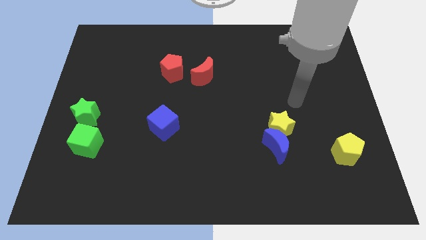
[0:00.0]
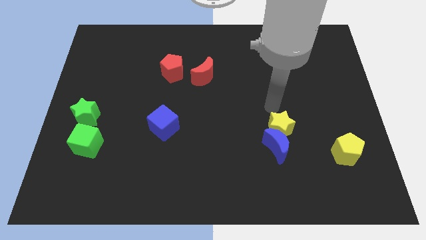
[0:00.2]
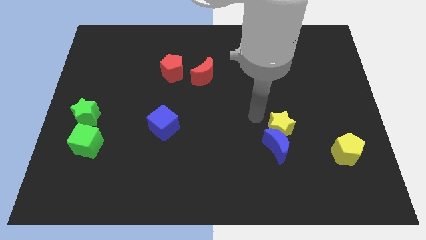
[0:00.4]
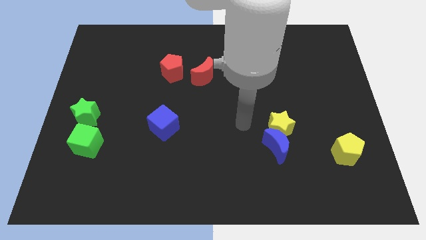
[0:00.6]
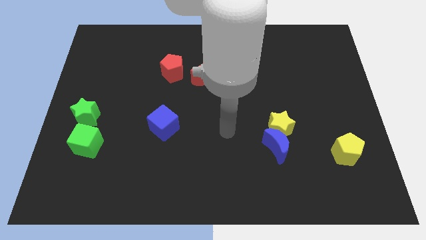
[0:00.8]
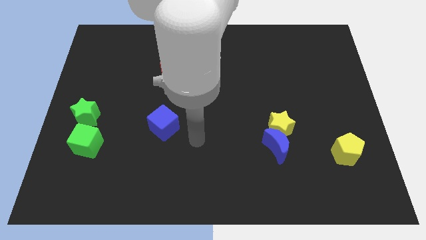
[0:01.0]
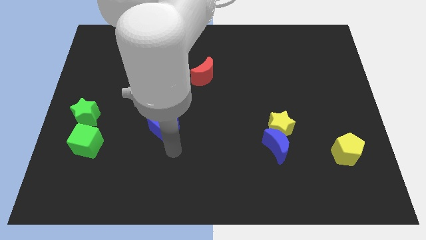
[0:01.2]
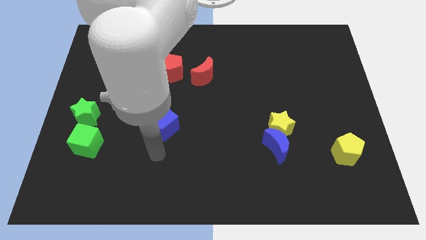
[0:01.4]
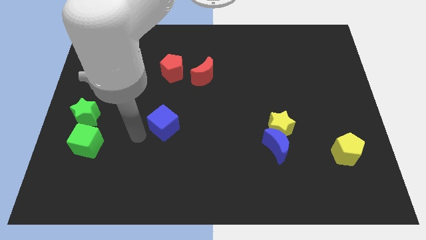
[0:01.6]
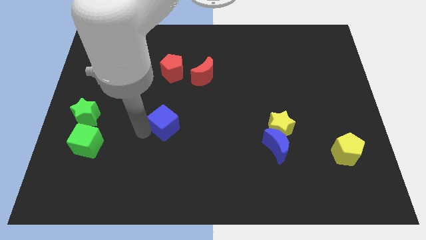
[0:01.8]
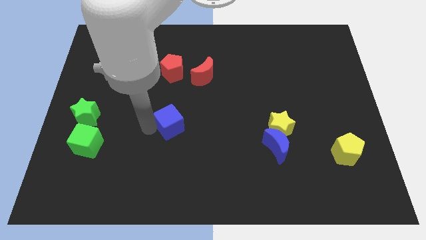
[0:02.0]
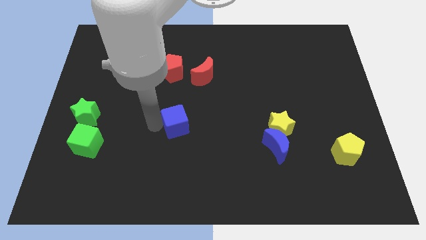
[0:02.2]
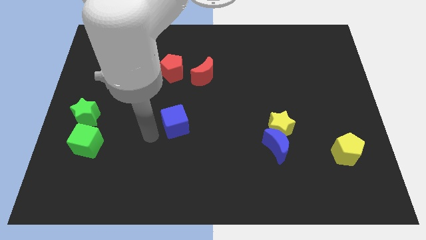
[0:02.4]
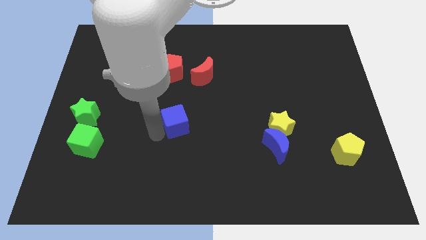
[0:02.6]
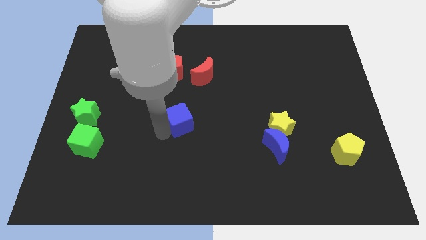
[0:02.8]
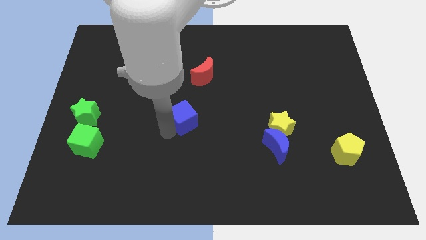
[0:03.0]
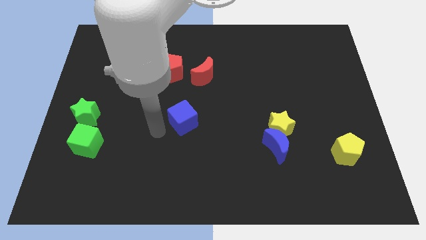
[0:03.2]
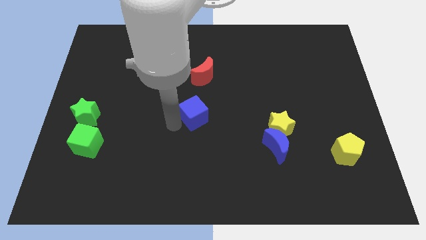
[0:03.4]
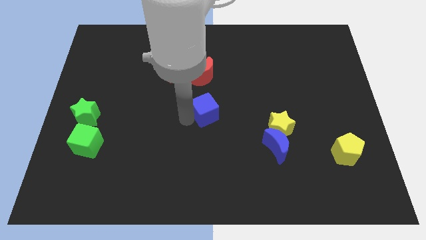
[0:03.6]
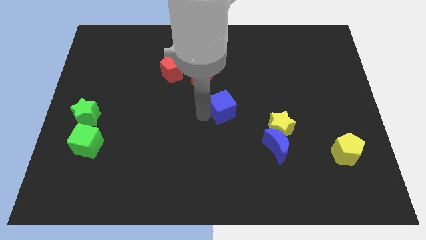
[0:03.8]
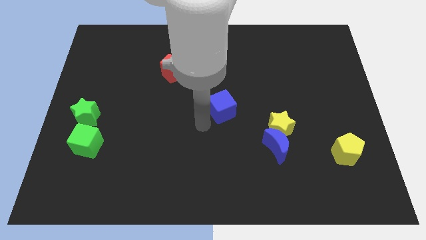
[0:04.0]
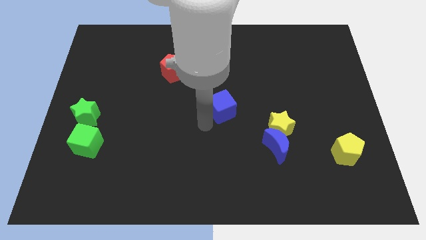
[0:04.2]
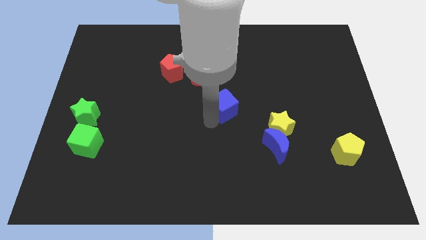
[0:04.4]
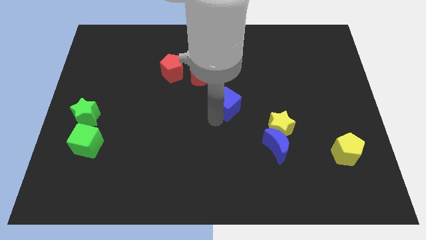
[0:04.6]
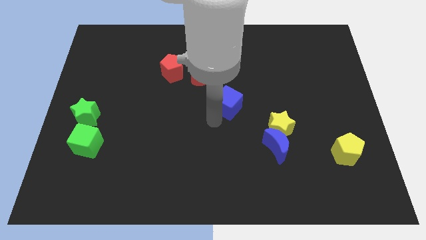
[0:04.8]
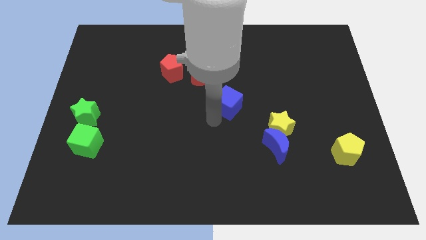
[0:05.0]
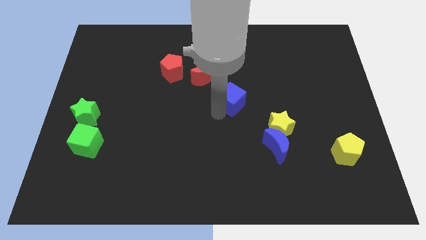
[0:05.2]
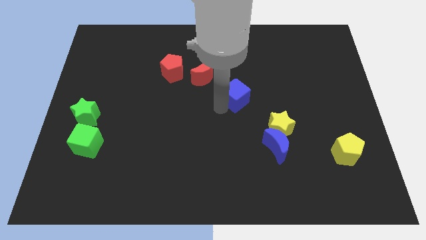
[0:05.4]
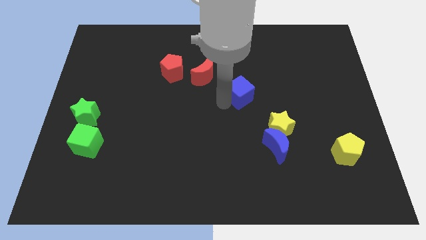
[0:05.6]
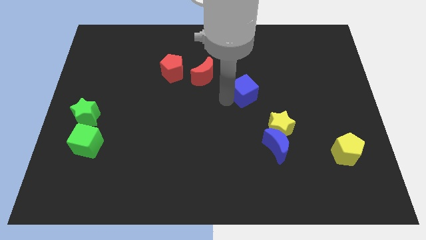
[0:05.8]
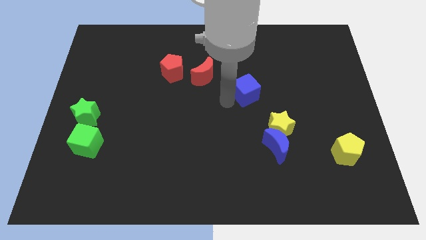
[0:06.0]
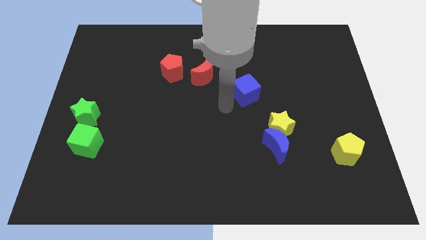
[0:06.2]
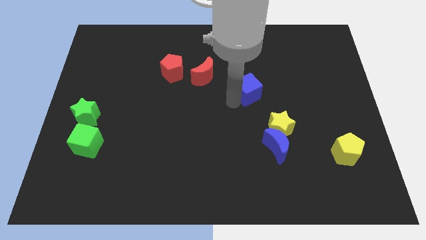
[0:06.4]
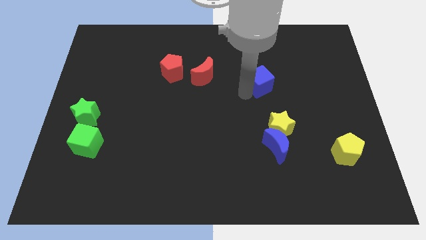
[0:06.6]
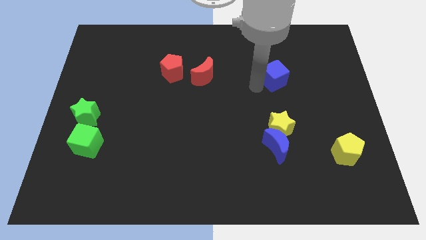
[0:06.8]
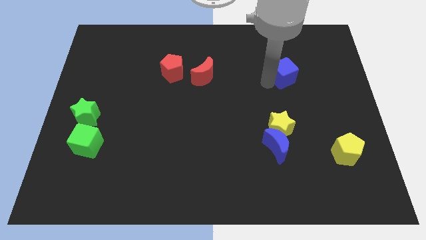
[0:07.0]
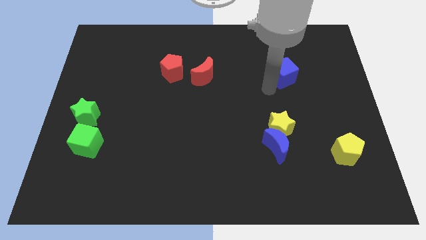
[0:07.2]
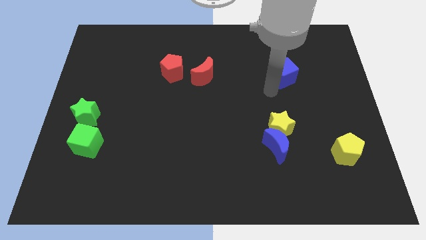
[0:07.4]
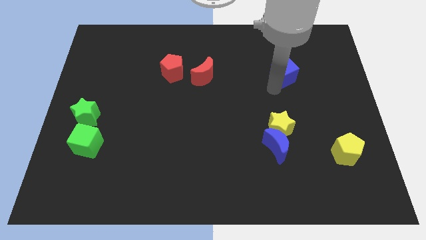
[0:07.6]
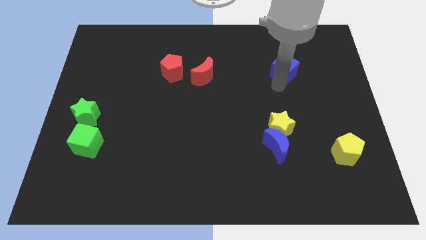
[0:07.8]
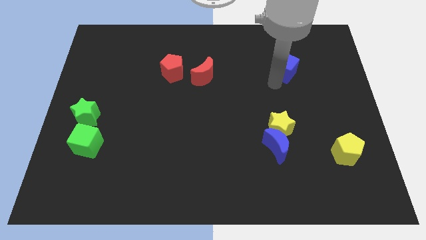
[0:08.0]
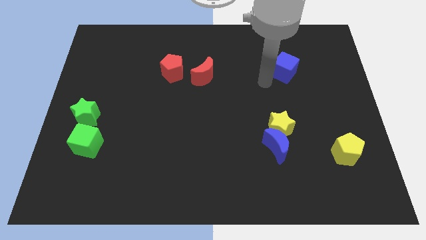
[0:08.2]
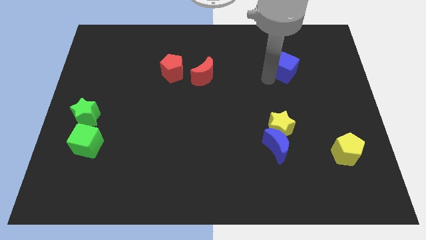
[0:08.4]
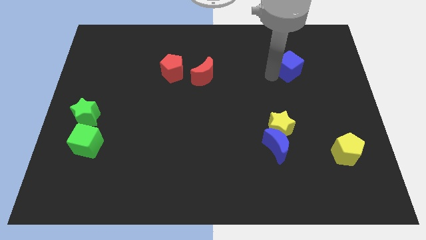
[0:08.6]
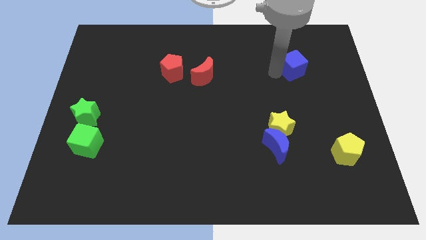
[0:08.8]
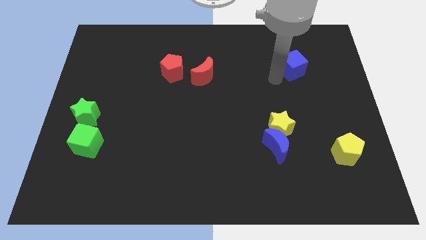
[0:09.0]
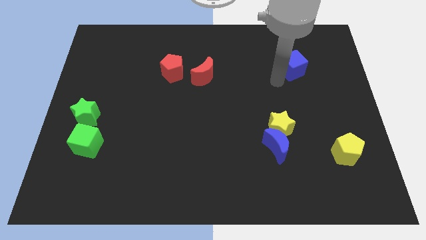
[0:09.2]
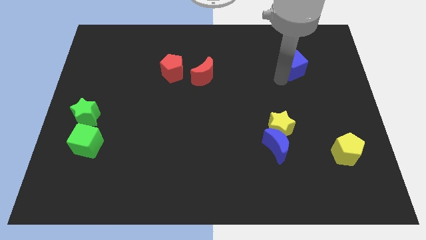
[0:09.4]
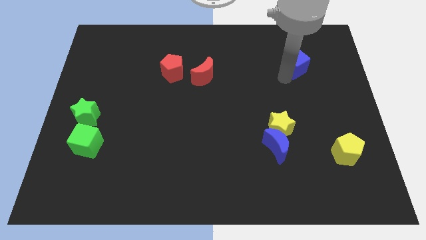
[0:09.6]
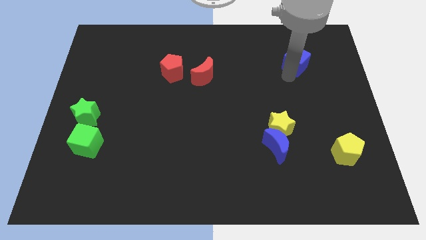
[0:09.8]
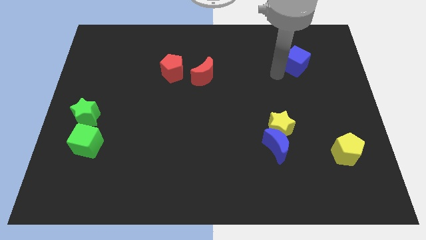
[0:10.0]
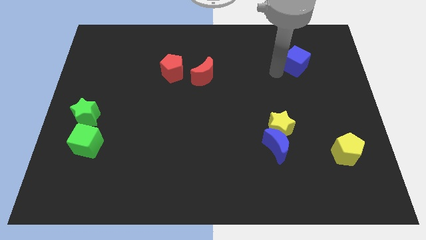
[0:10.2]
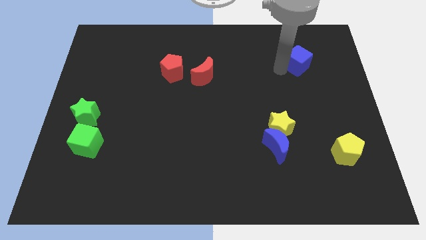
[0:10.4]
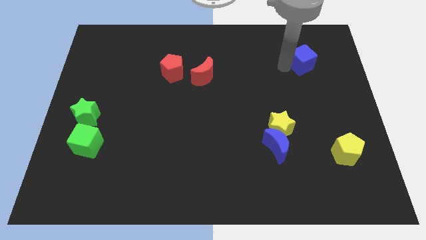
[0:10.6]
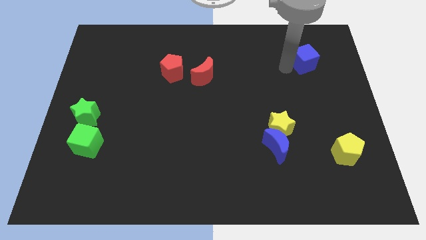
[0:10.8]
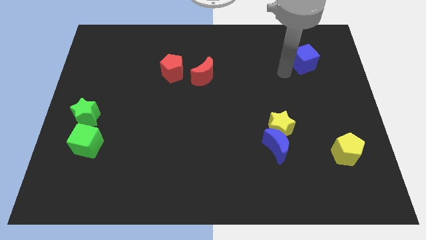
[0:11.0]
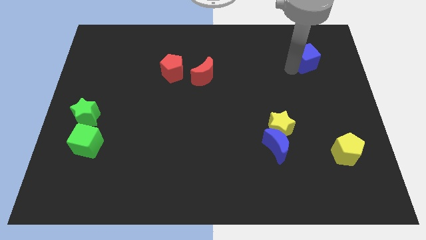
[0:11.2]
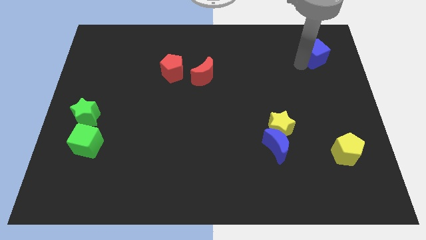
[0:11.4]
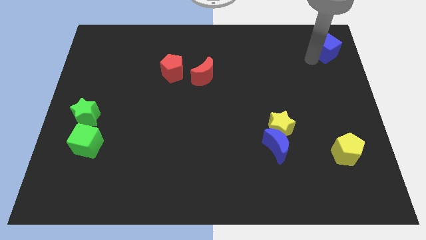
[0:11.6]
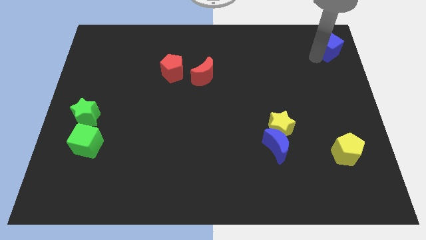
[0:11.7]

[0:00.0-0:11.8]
slide the blue cube to the top right of the board
